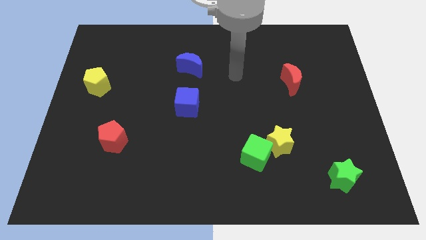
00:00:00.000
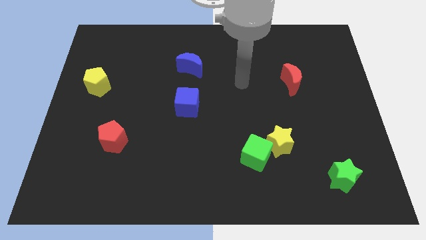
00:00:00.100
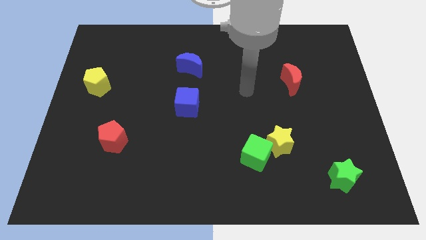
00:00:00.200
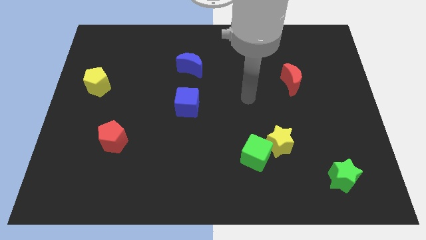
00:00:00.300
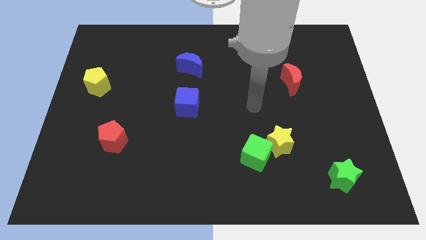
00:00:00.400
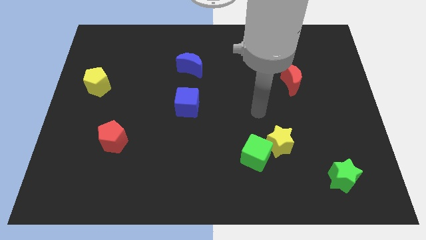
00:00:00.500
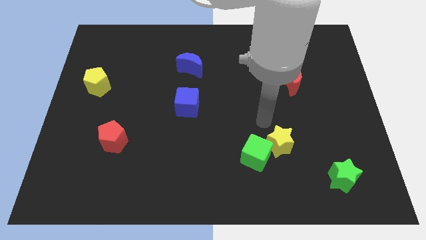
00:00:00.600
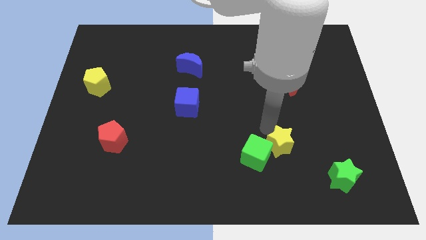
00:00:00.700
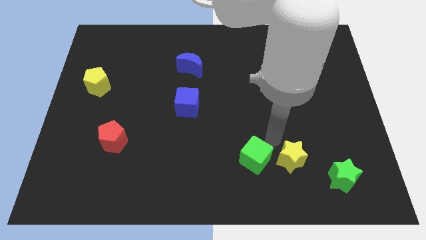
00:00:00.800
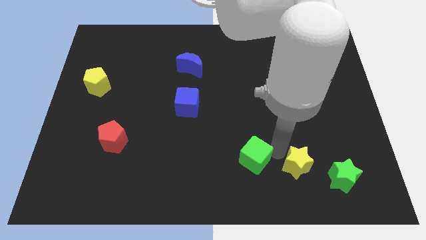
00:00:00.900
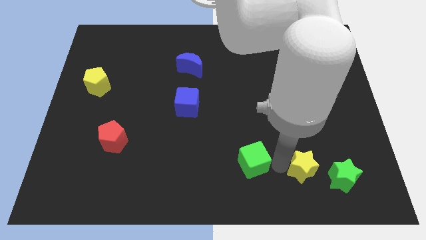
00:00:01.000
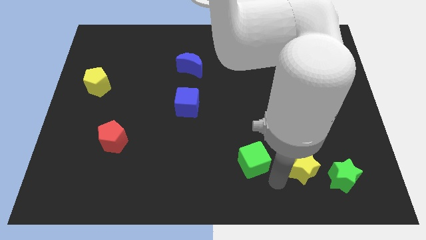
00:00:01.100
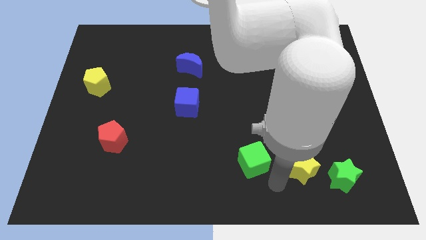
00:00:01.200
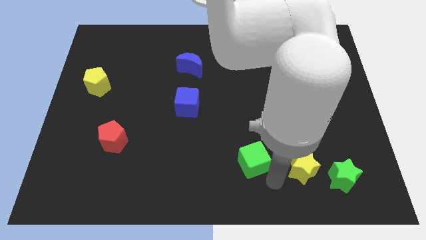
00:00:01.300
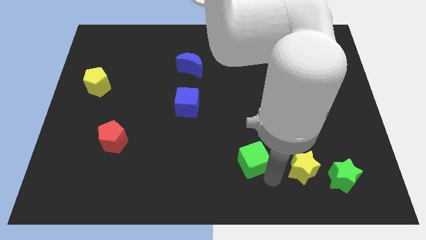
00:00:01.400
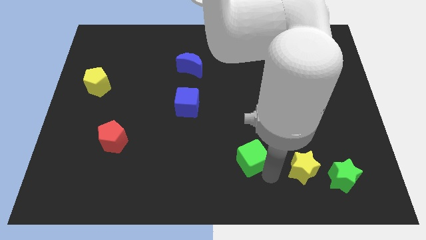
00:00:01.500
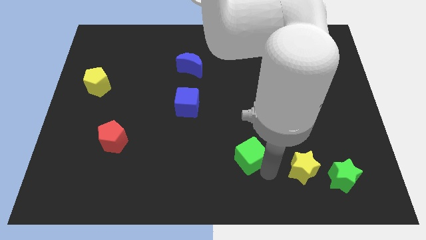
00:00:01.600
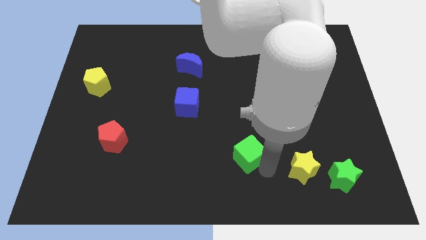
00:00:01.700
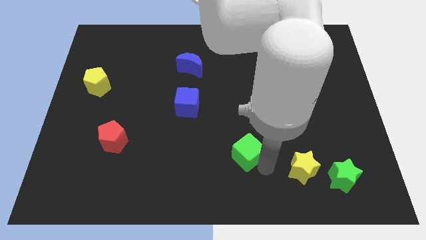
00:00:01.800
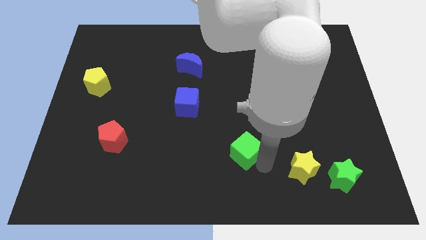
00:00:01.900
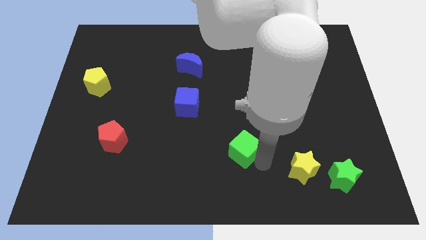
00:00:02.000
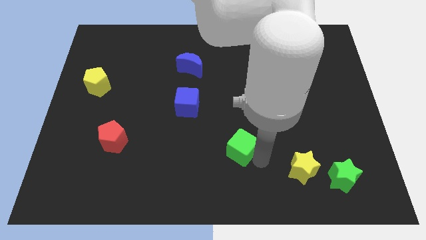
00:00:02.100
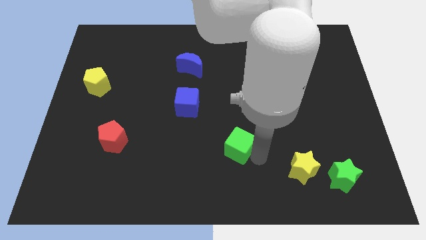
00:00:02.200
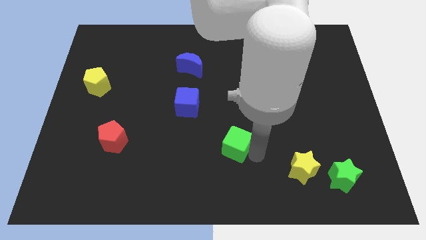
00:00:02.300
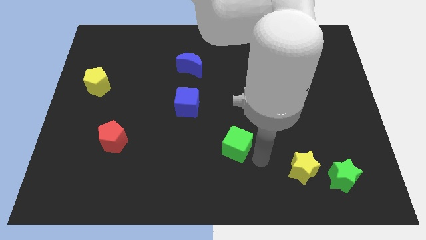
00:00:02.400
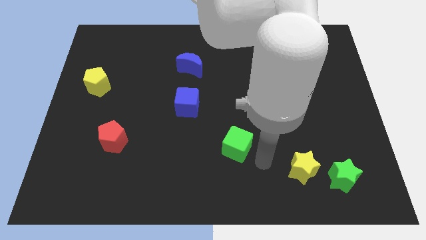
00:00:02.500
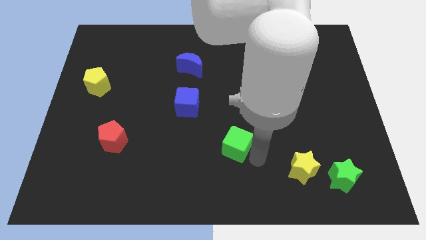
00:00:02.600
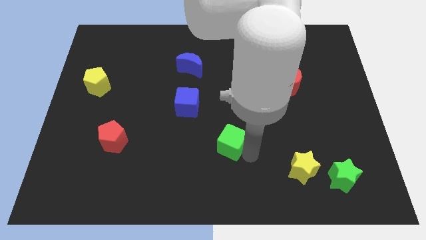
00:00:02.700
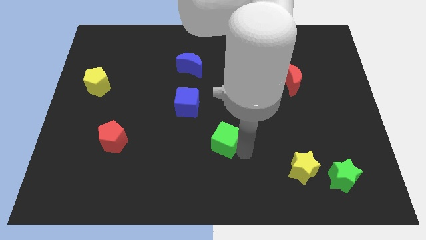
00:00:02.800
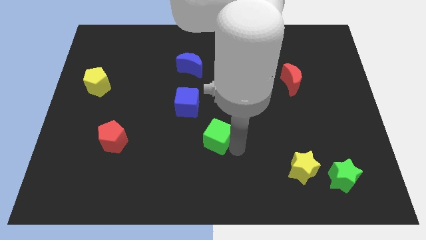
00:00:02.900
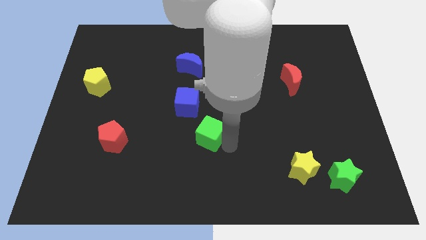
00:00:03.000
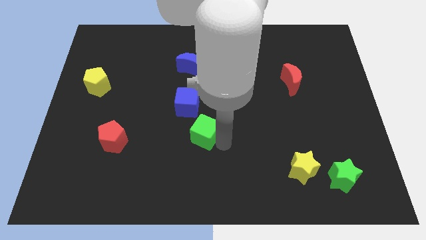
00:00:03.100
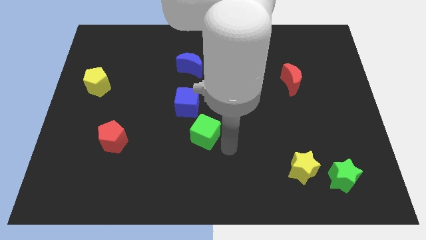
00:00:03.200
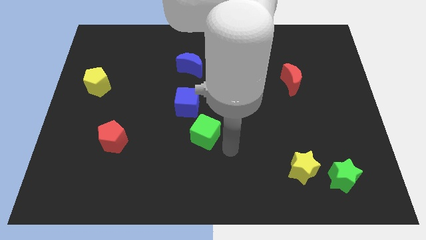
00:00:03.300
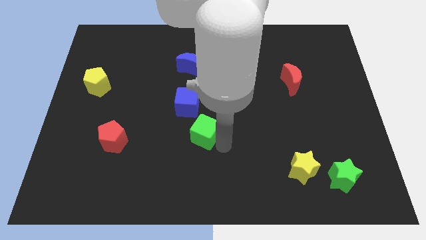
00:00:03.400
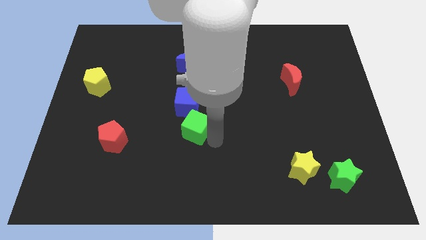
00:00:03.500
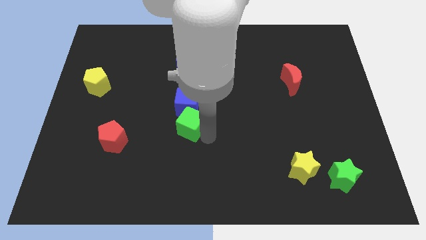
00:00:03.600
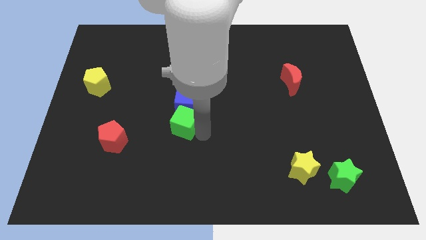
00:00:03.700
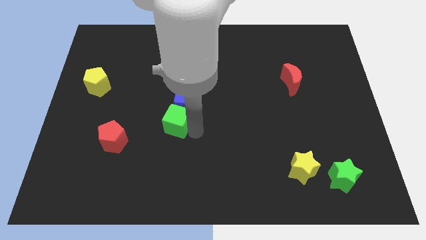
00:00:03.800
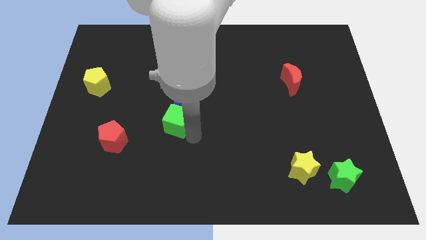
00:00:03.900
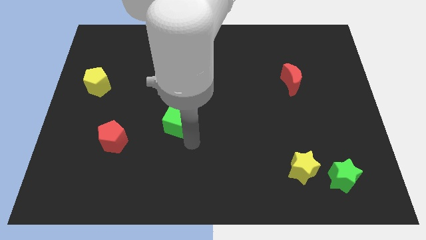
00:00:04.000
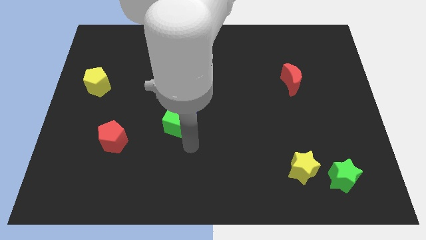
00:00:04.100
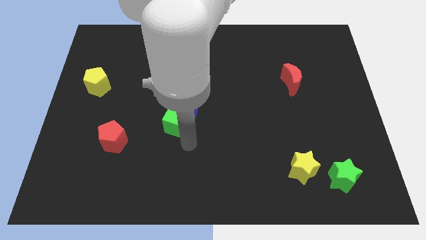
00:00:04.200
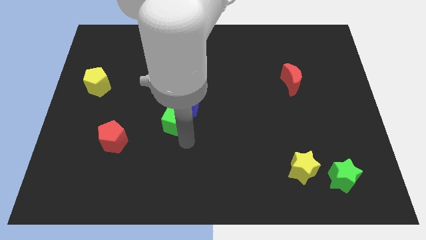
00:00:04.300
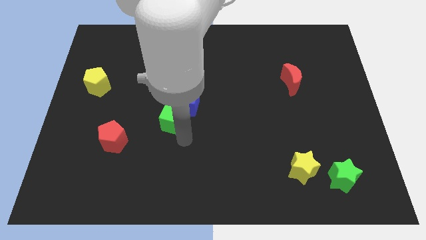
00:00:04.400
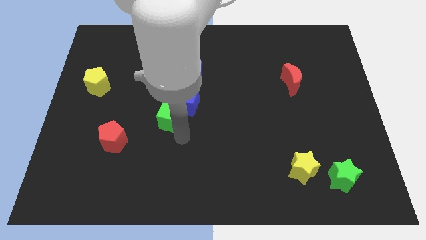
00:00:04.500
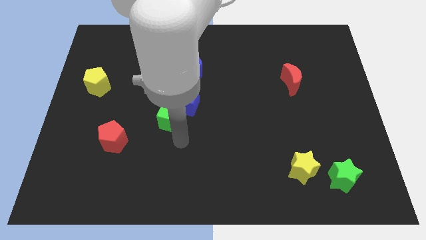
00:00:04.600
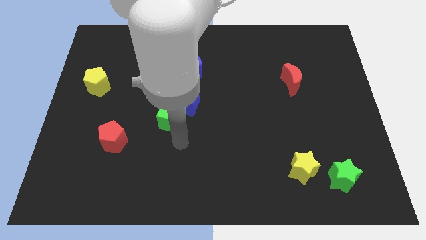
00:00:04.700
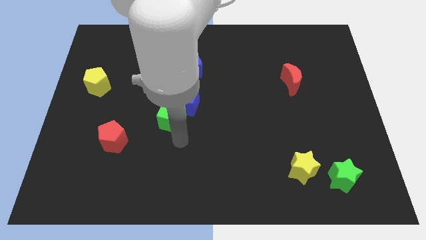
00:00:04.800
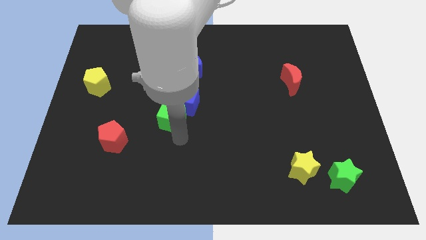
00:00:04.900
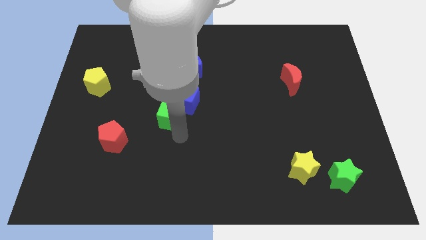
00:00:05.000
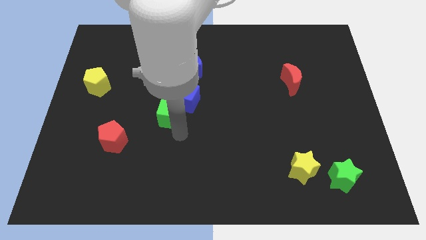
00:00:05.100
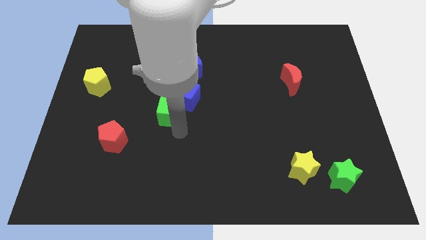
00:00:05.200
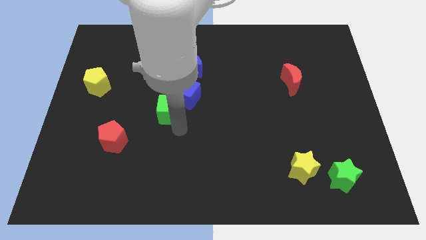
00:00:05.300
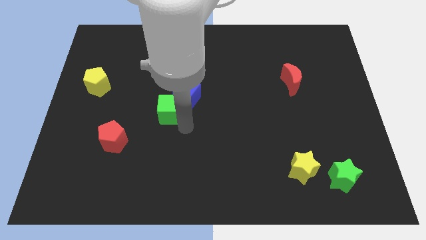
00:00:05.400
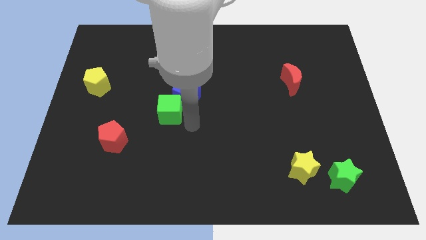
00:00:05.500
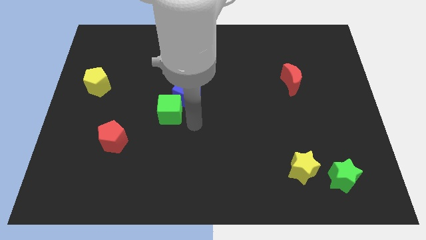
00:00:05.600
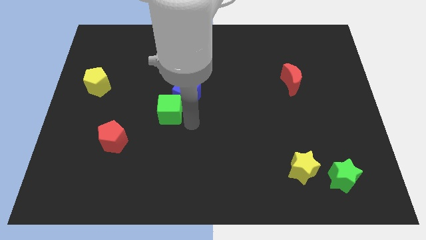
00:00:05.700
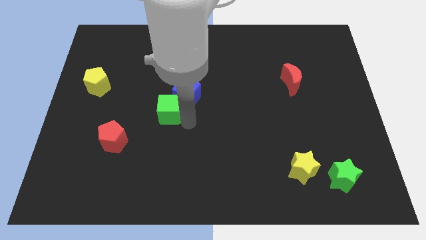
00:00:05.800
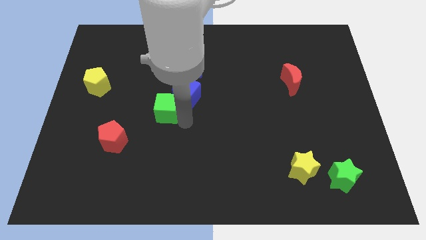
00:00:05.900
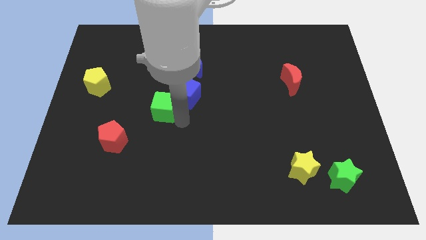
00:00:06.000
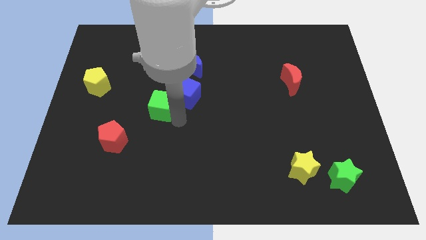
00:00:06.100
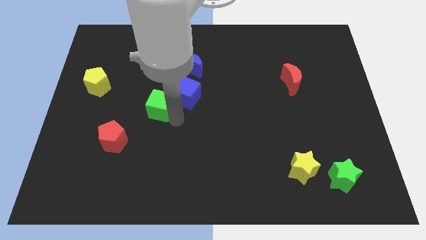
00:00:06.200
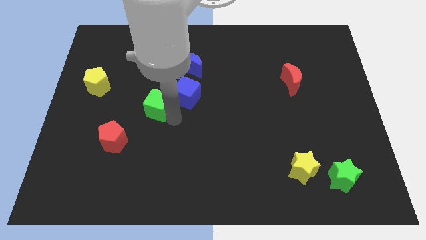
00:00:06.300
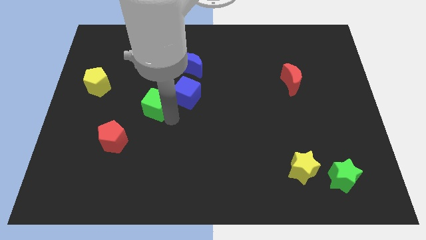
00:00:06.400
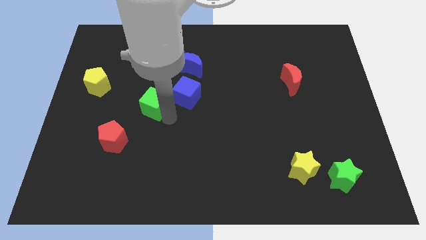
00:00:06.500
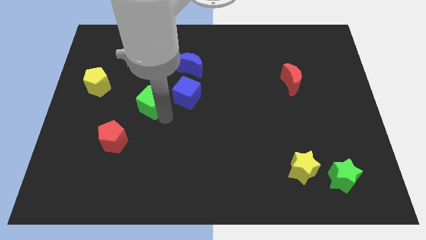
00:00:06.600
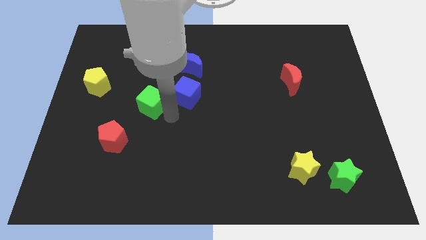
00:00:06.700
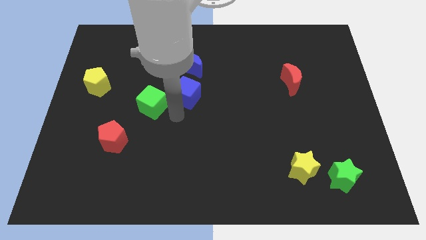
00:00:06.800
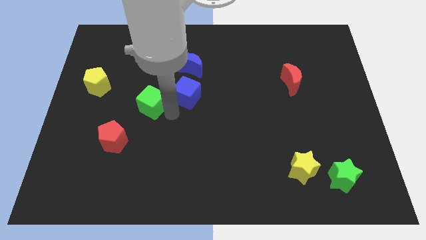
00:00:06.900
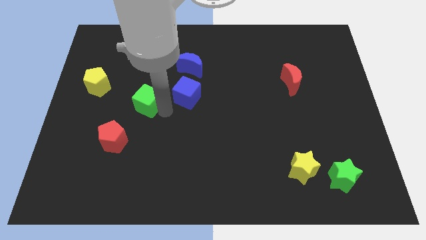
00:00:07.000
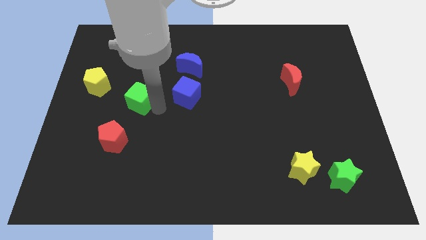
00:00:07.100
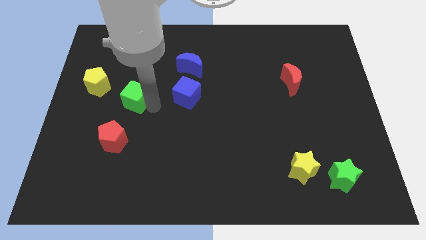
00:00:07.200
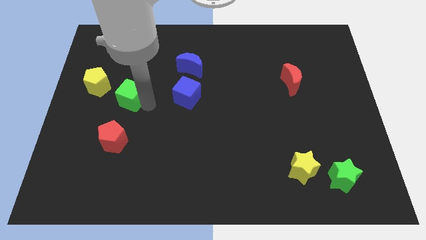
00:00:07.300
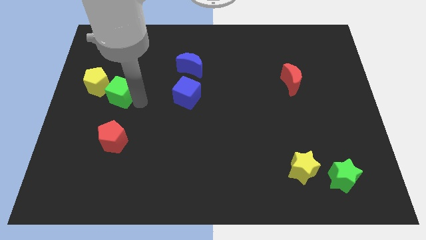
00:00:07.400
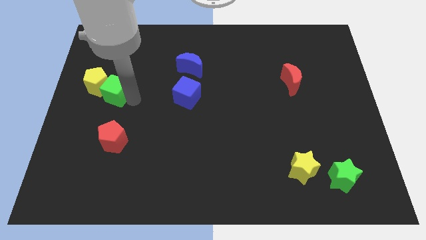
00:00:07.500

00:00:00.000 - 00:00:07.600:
put the green cube next to the yellow pentagon
